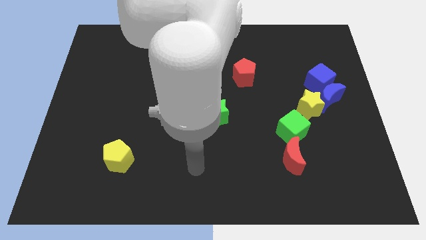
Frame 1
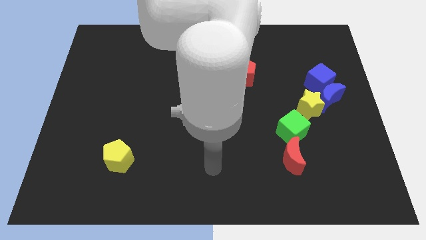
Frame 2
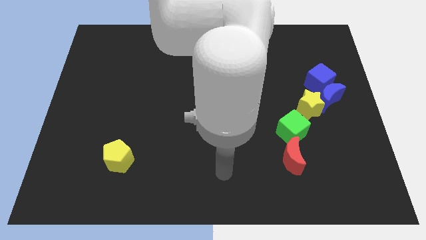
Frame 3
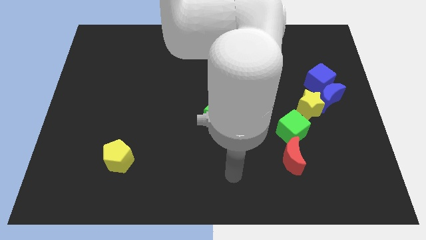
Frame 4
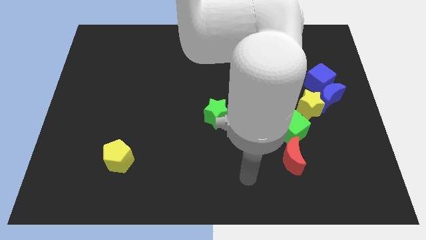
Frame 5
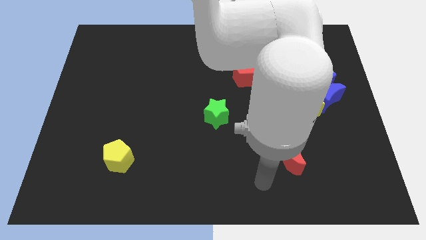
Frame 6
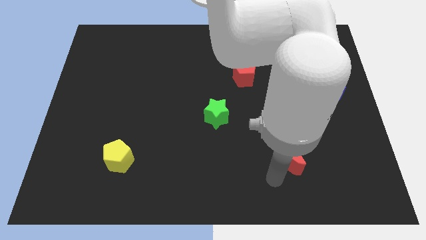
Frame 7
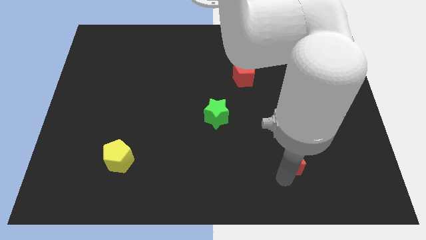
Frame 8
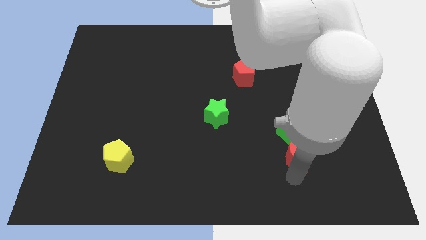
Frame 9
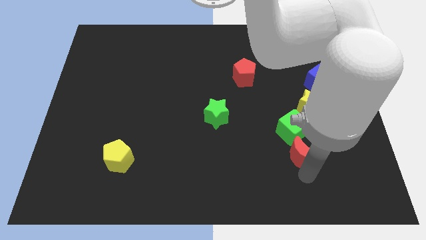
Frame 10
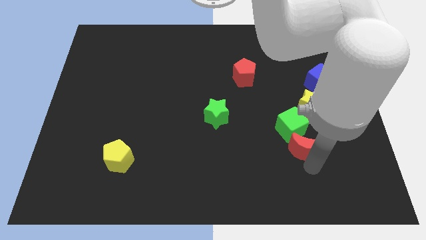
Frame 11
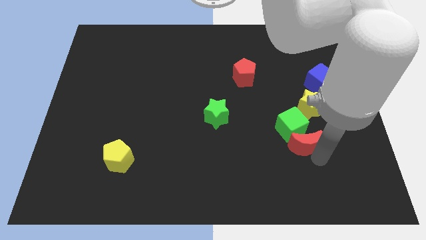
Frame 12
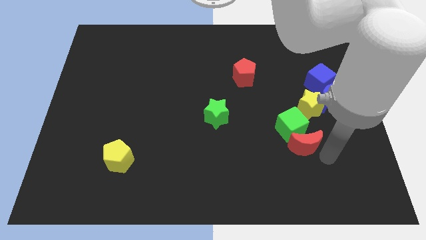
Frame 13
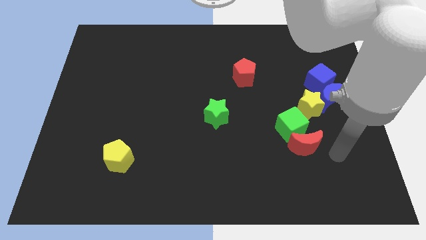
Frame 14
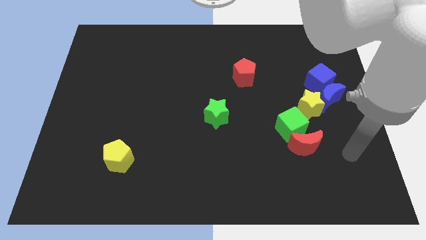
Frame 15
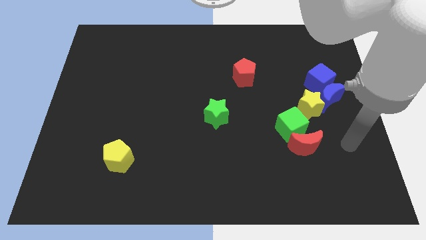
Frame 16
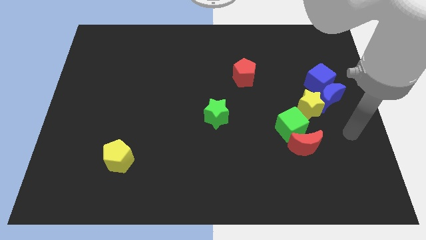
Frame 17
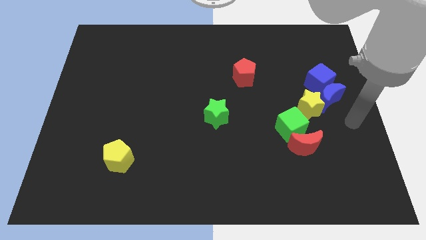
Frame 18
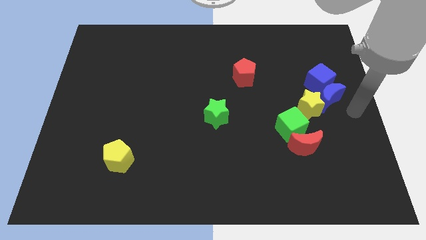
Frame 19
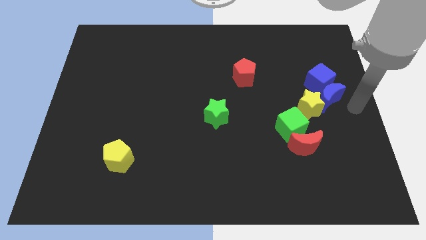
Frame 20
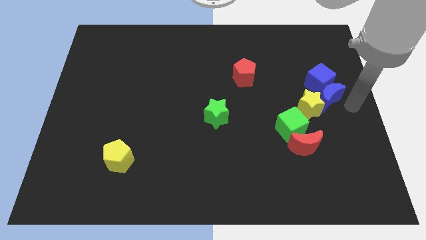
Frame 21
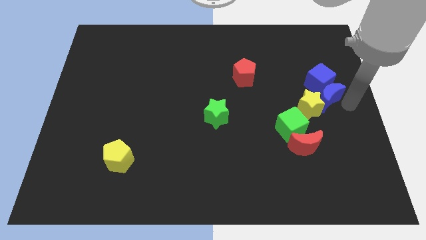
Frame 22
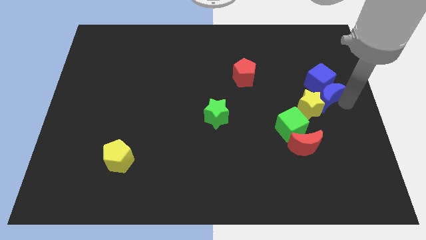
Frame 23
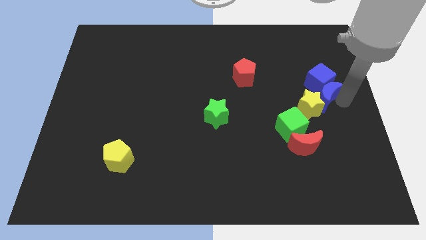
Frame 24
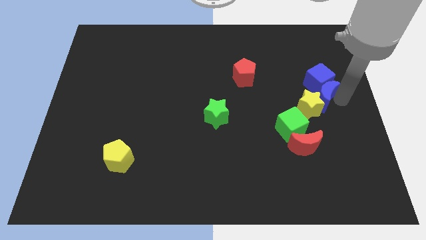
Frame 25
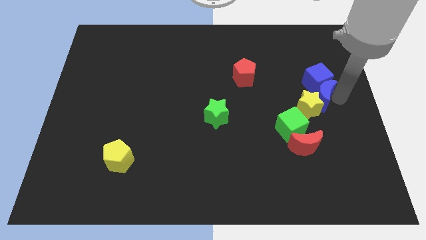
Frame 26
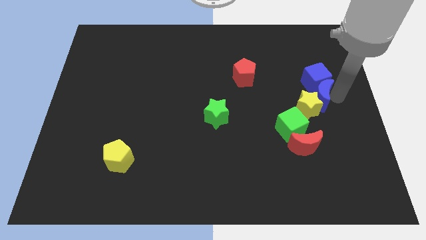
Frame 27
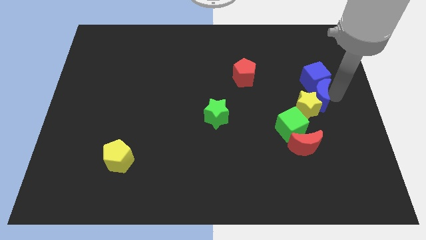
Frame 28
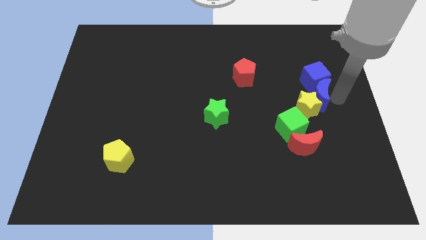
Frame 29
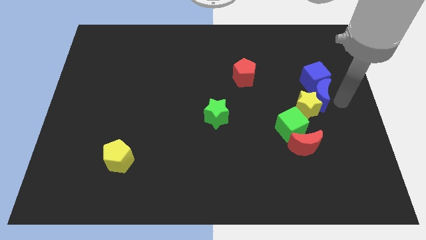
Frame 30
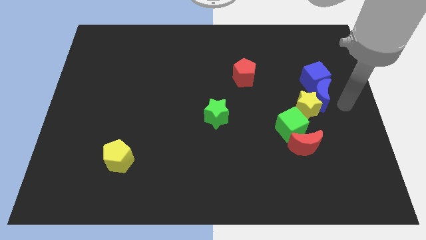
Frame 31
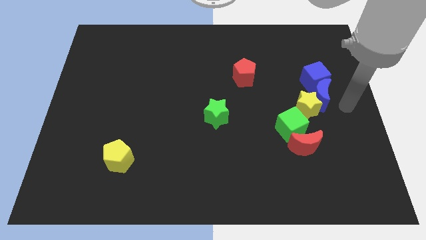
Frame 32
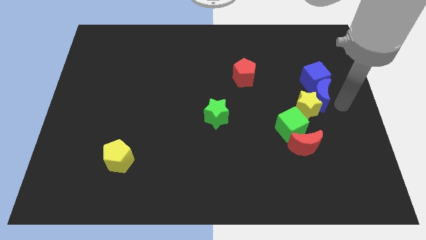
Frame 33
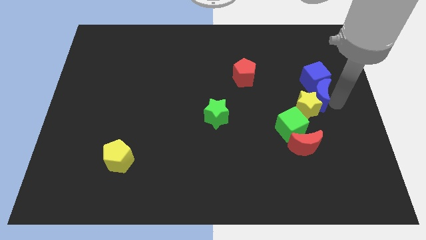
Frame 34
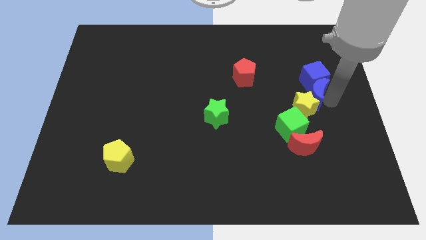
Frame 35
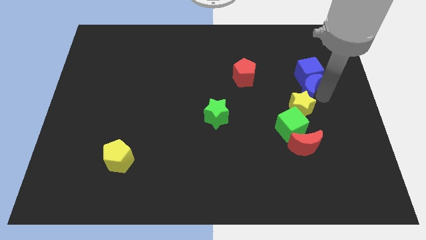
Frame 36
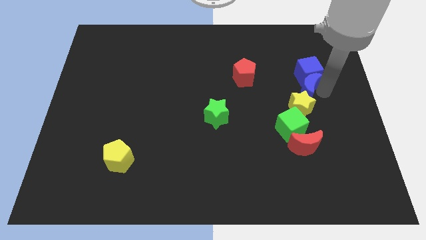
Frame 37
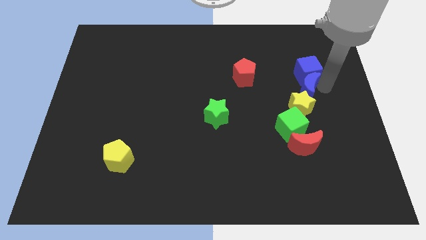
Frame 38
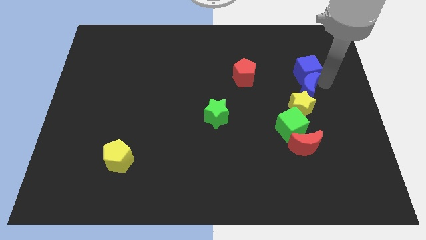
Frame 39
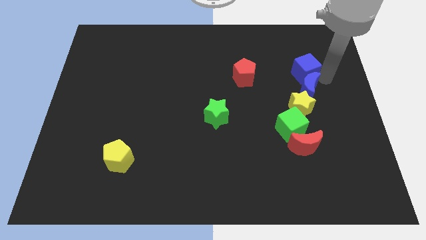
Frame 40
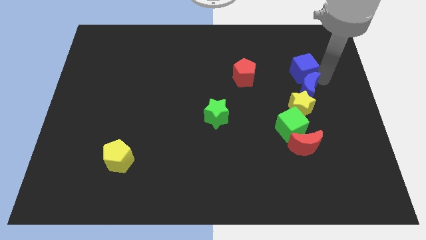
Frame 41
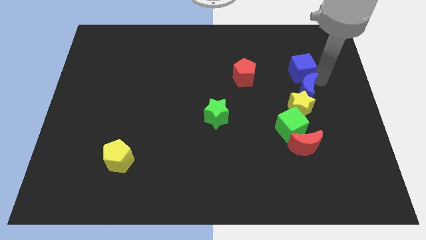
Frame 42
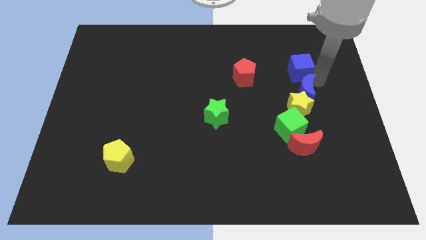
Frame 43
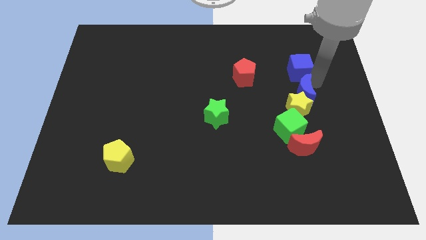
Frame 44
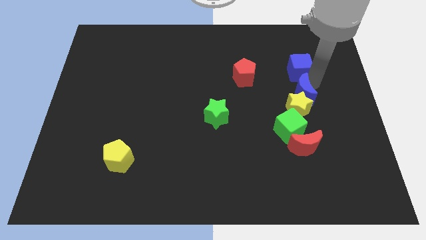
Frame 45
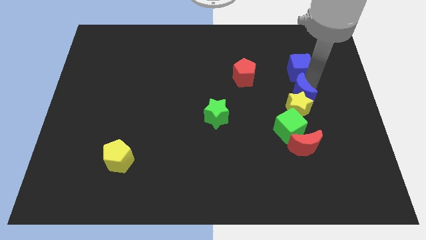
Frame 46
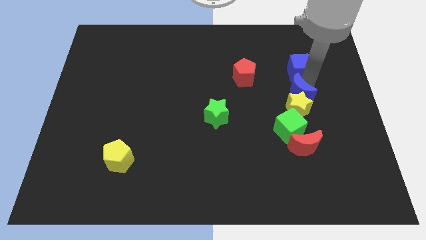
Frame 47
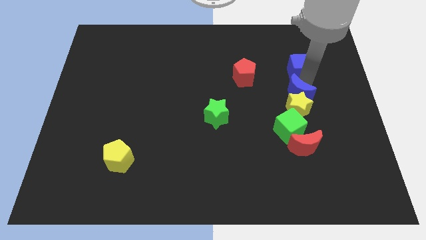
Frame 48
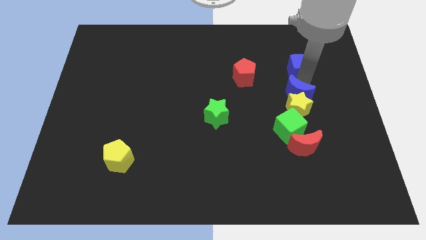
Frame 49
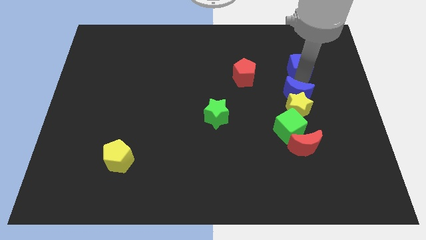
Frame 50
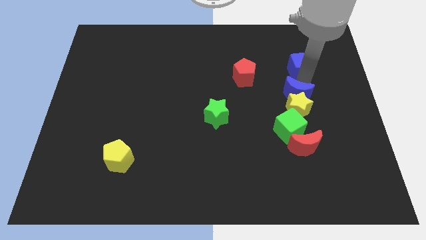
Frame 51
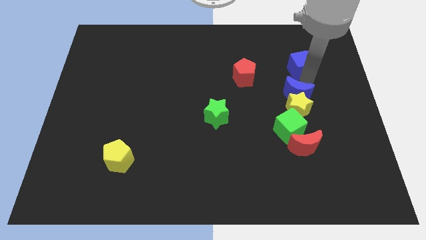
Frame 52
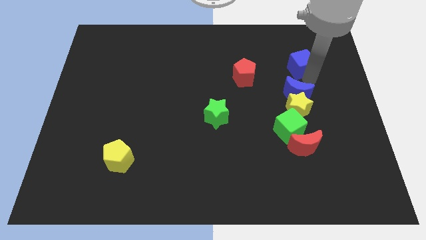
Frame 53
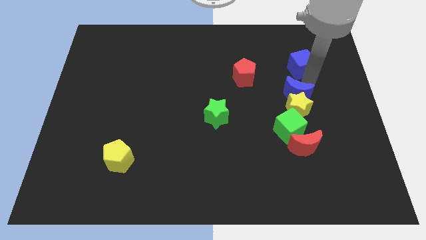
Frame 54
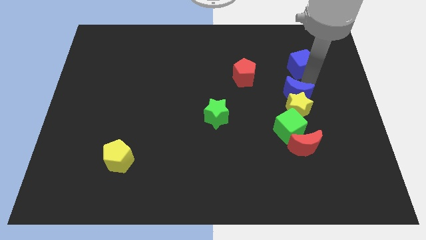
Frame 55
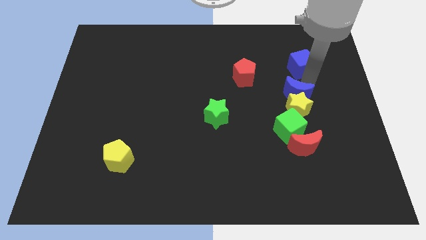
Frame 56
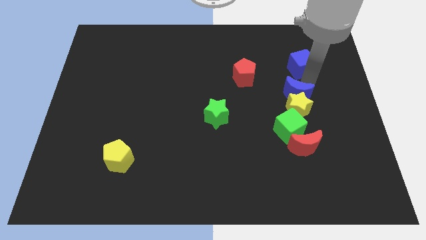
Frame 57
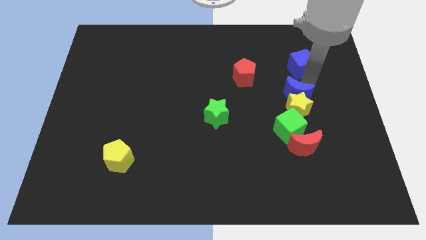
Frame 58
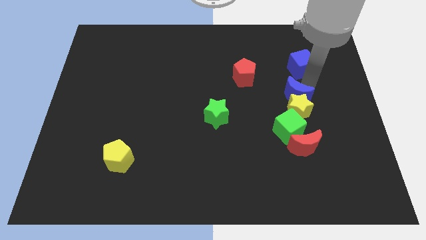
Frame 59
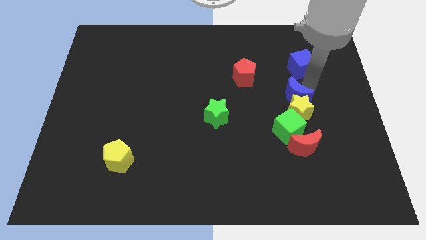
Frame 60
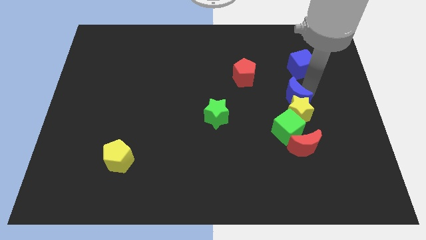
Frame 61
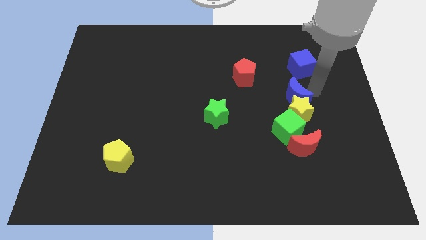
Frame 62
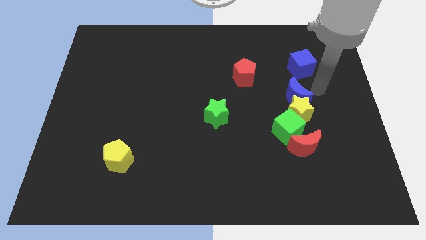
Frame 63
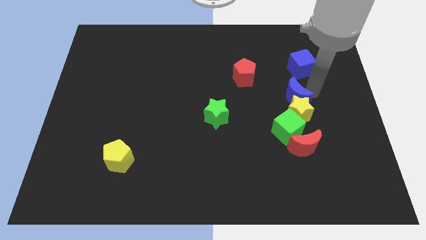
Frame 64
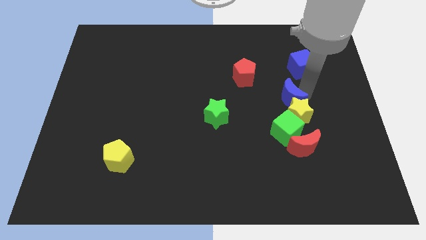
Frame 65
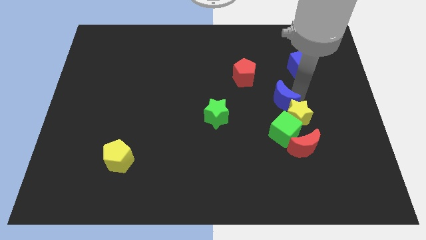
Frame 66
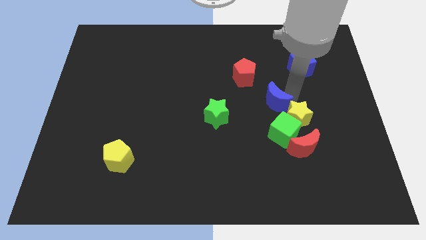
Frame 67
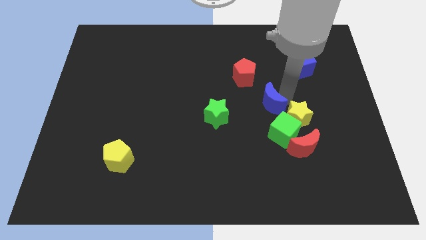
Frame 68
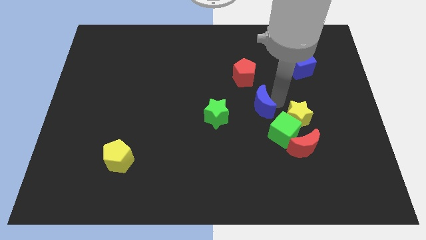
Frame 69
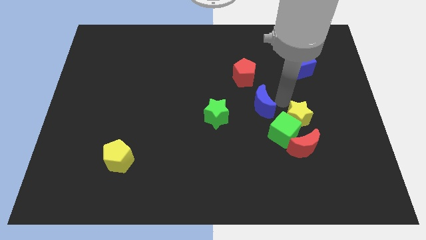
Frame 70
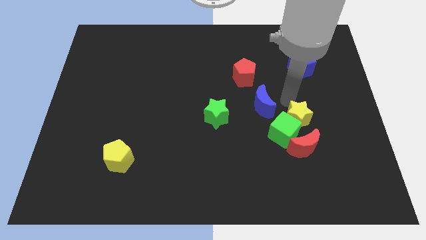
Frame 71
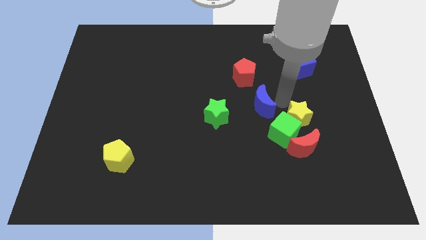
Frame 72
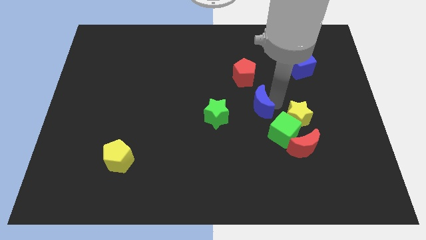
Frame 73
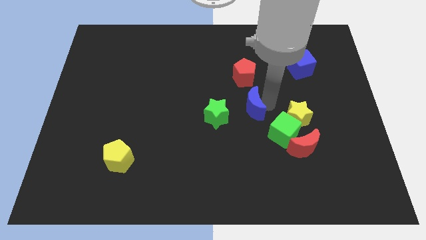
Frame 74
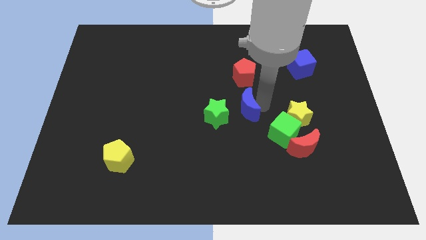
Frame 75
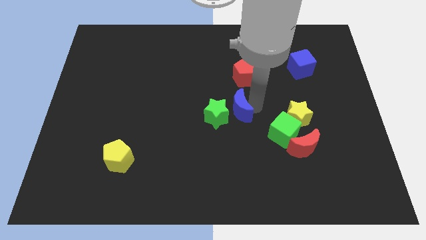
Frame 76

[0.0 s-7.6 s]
slide the blue moon to the green star

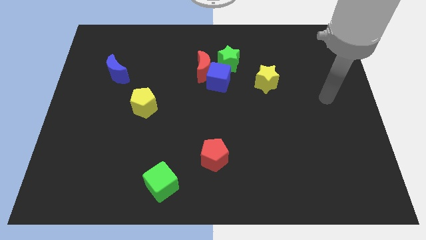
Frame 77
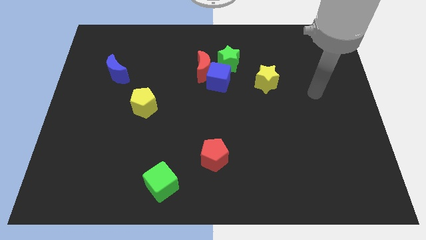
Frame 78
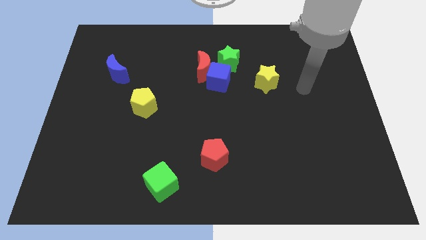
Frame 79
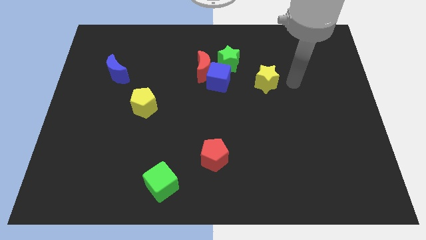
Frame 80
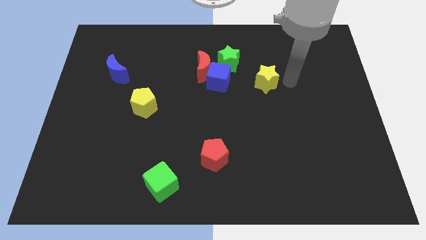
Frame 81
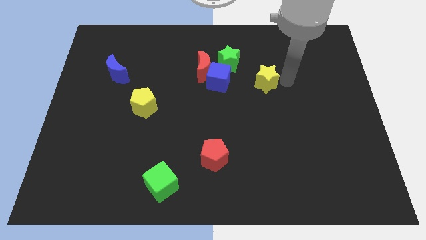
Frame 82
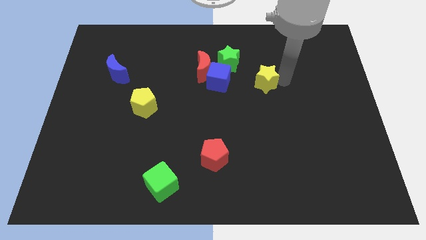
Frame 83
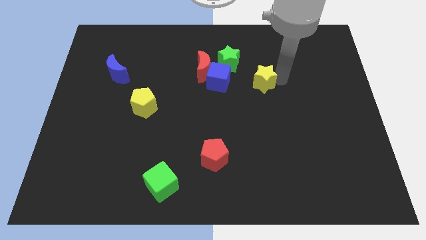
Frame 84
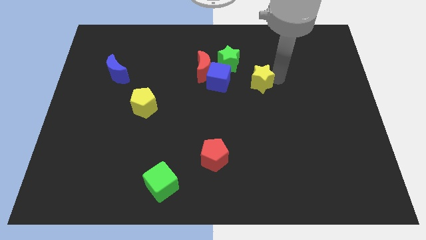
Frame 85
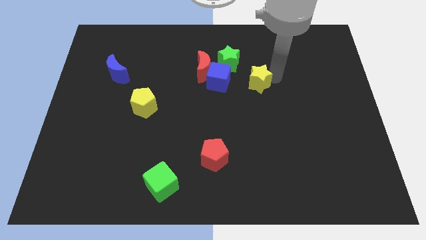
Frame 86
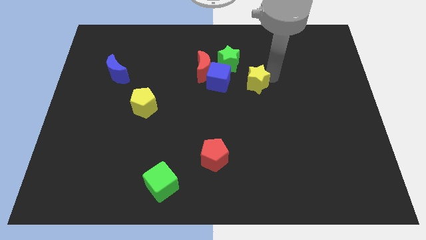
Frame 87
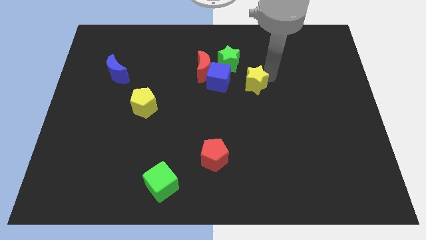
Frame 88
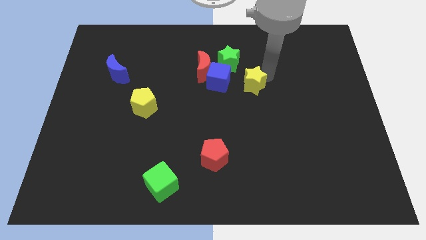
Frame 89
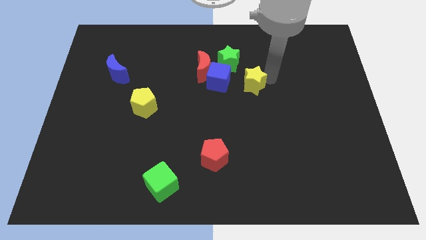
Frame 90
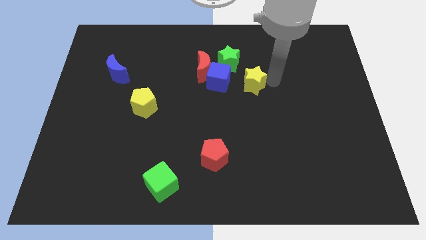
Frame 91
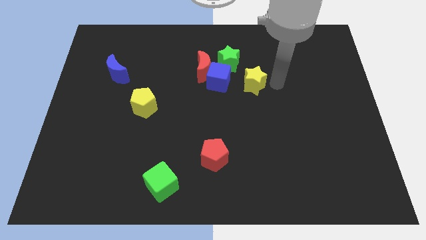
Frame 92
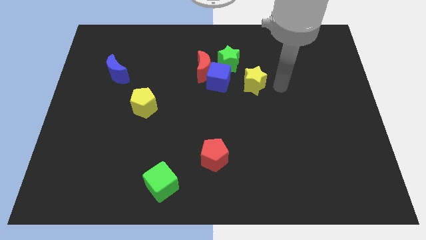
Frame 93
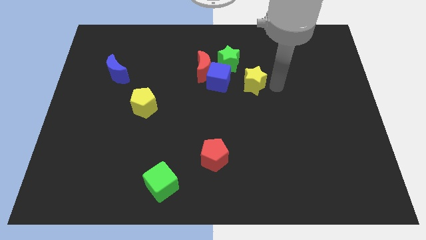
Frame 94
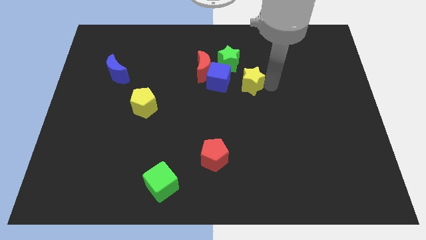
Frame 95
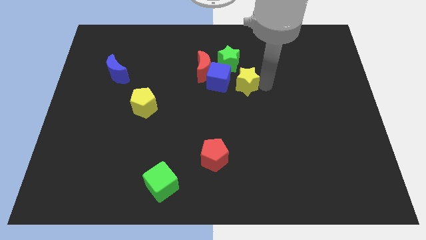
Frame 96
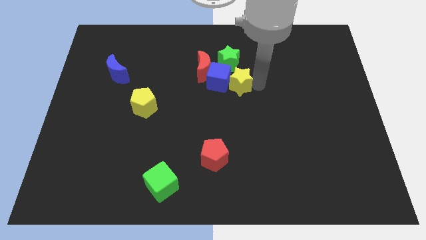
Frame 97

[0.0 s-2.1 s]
slide the yellow star next to the blue cube
